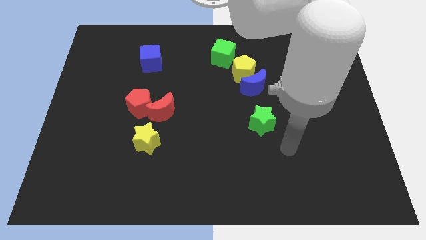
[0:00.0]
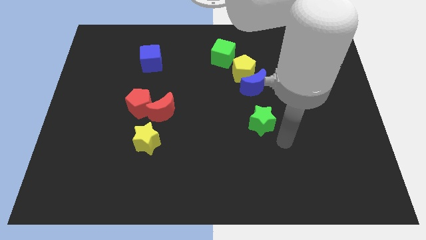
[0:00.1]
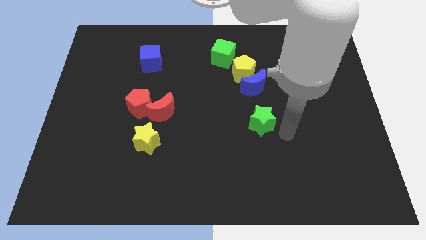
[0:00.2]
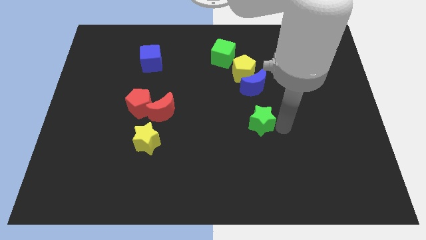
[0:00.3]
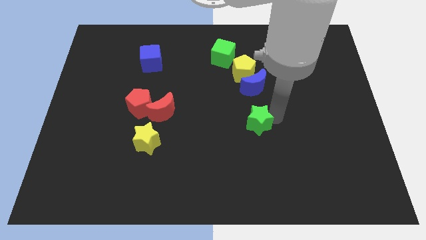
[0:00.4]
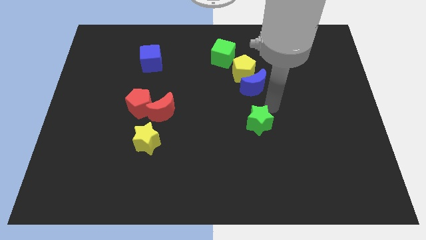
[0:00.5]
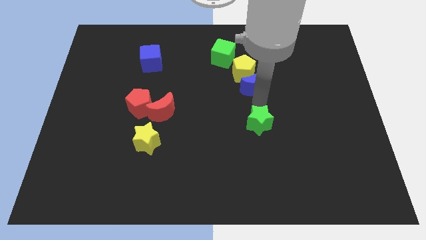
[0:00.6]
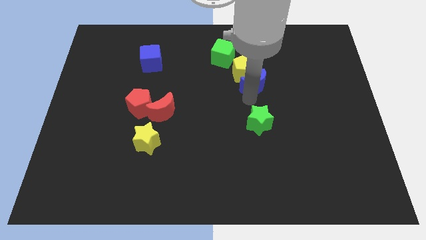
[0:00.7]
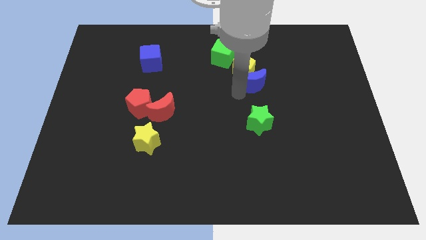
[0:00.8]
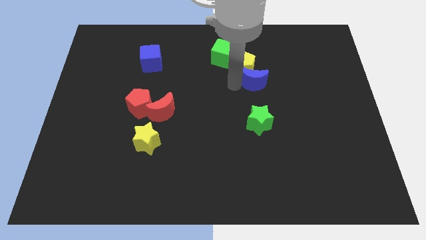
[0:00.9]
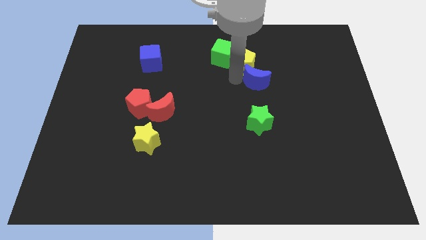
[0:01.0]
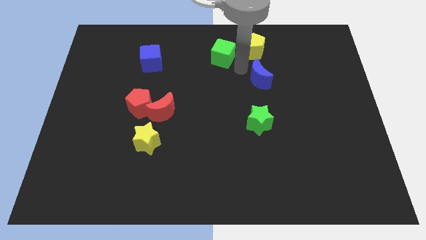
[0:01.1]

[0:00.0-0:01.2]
move the blue moon away from the yellow pentagon

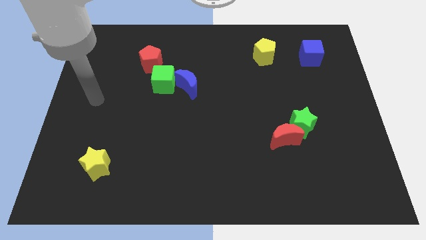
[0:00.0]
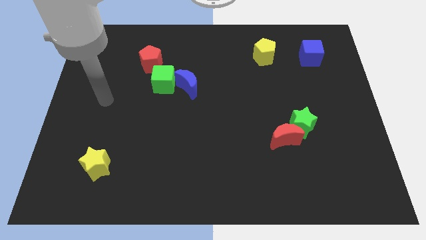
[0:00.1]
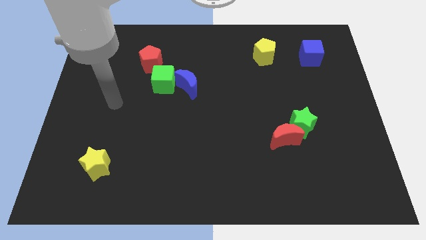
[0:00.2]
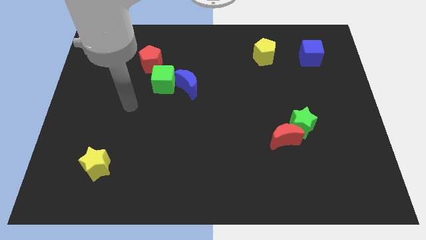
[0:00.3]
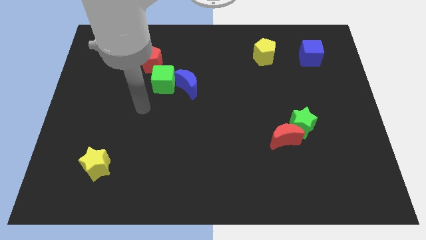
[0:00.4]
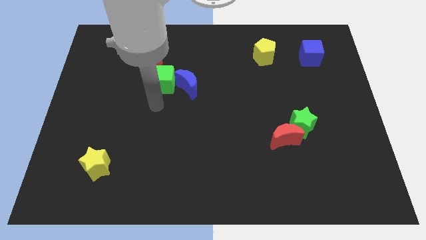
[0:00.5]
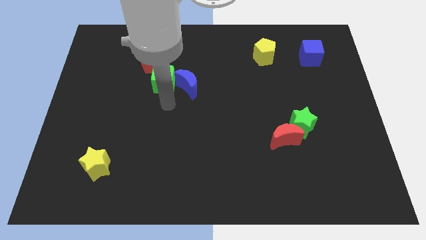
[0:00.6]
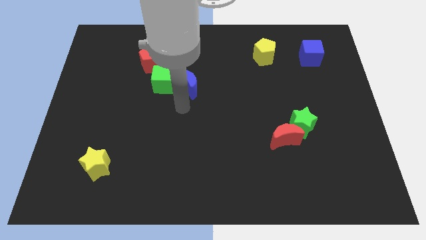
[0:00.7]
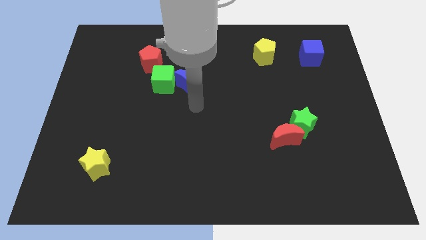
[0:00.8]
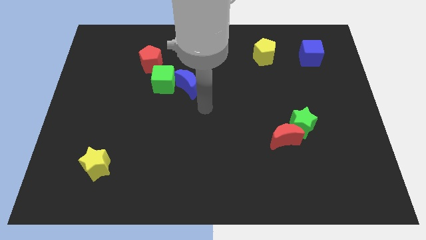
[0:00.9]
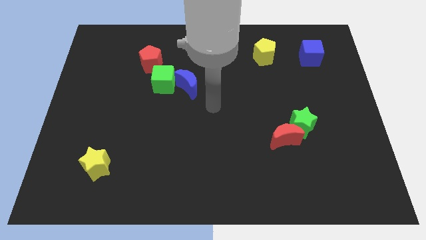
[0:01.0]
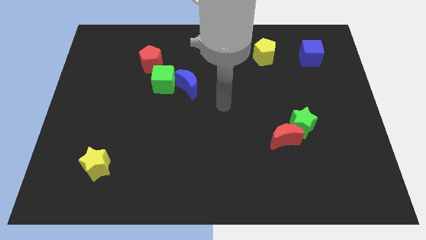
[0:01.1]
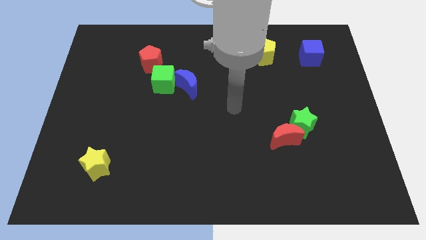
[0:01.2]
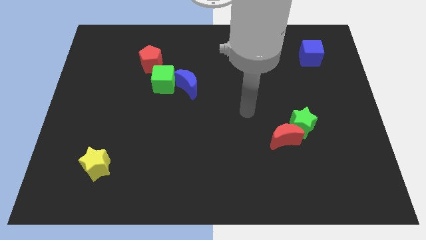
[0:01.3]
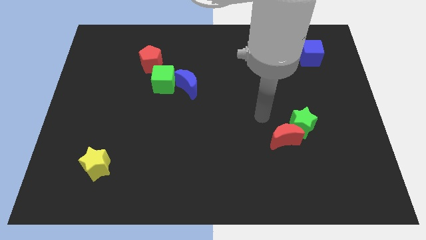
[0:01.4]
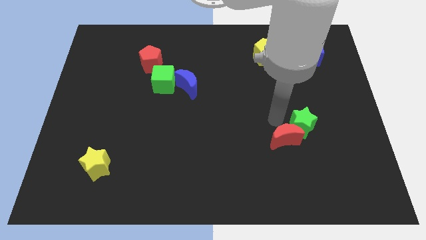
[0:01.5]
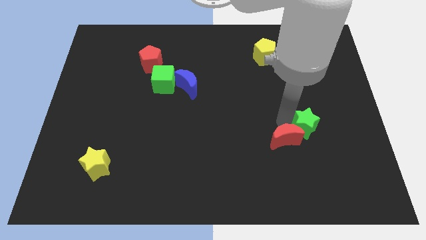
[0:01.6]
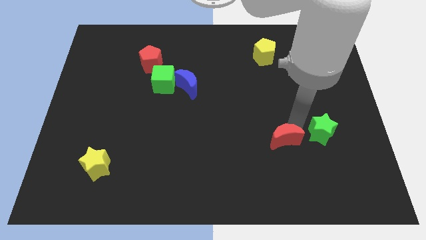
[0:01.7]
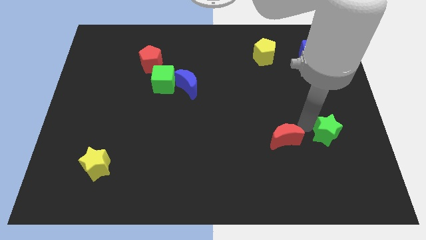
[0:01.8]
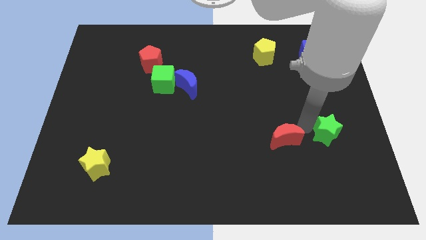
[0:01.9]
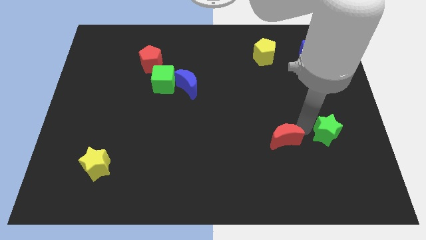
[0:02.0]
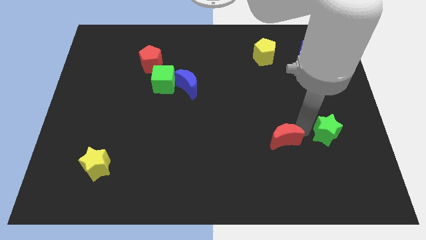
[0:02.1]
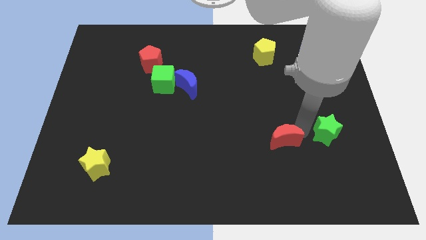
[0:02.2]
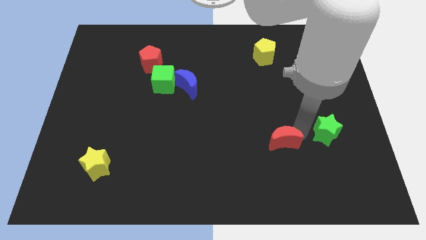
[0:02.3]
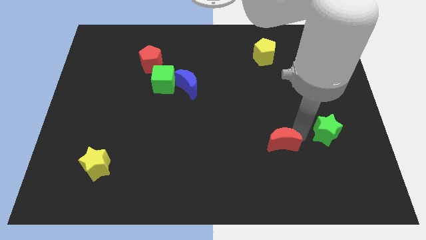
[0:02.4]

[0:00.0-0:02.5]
move the red moon away from the green star

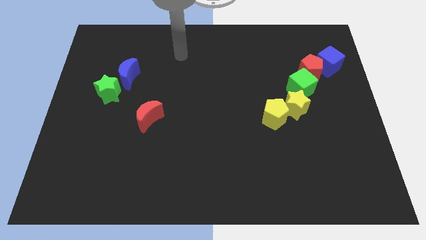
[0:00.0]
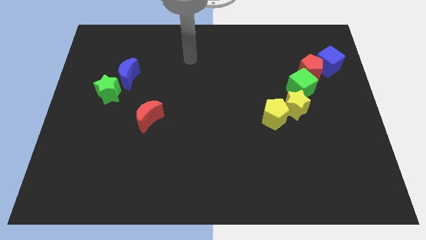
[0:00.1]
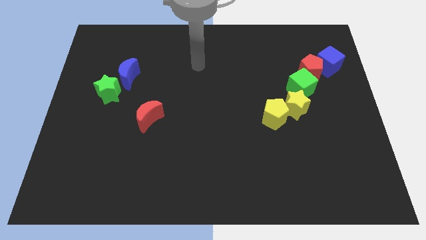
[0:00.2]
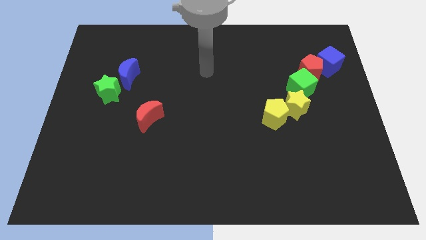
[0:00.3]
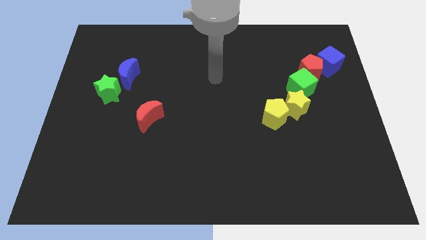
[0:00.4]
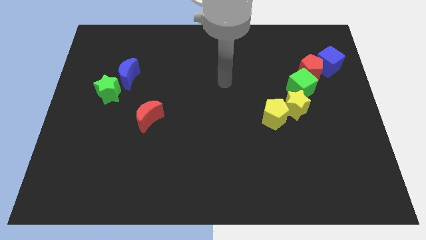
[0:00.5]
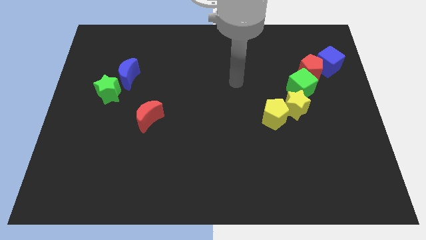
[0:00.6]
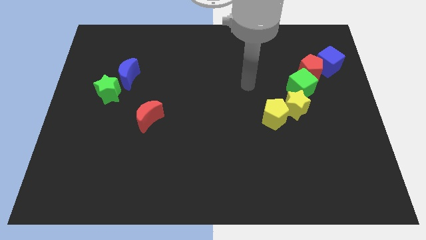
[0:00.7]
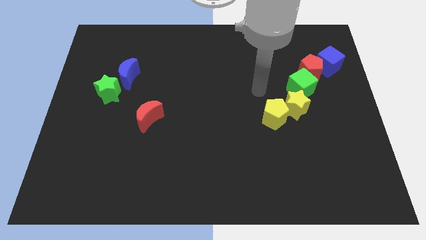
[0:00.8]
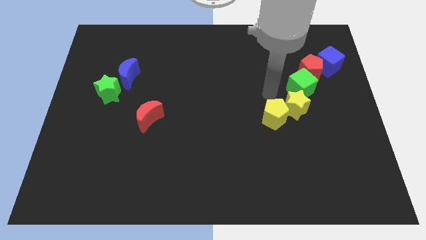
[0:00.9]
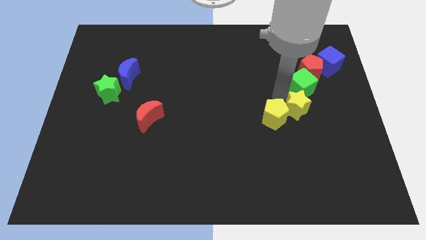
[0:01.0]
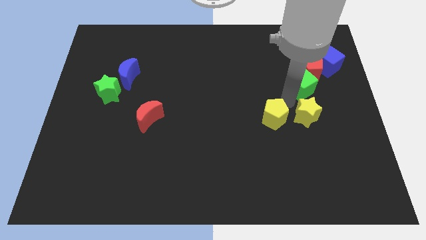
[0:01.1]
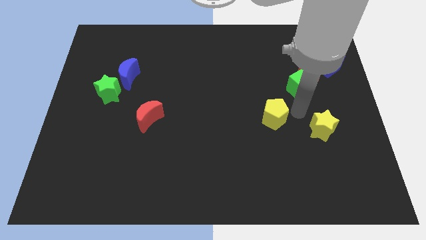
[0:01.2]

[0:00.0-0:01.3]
separate the yellow pentagon from the yellow star

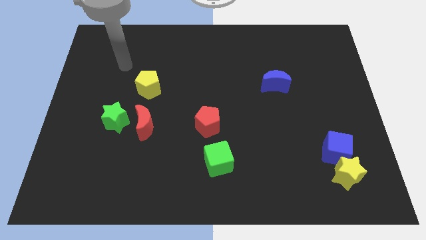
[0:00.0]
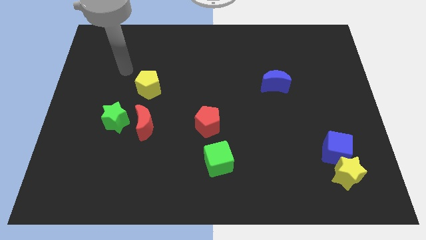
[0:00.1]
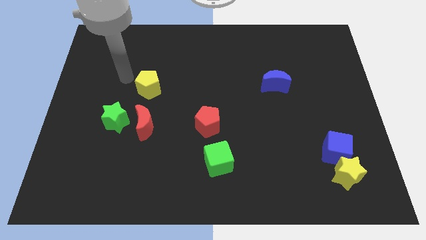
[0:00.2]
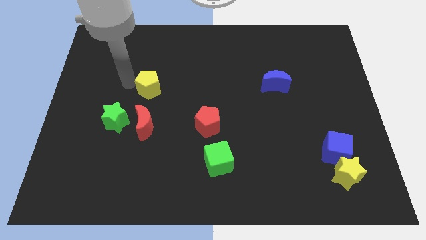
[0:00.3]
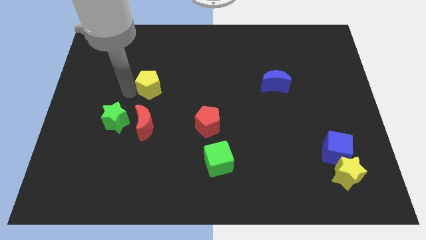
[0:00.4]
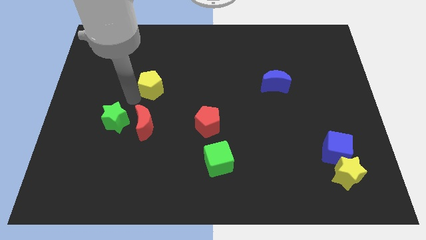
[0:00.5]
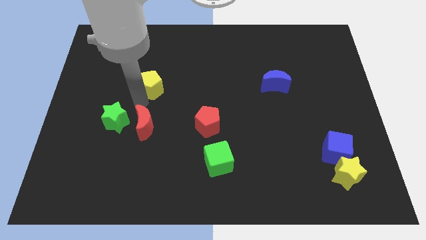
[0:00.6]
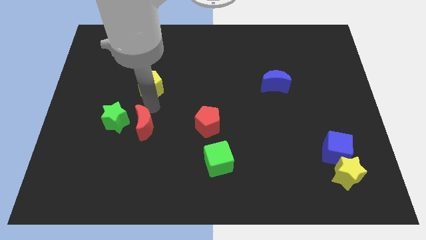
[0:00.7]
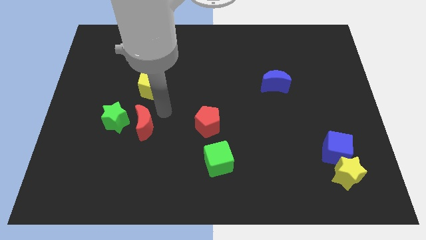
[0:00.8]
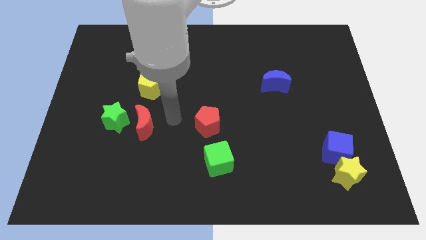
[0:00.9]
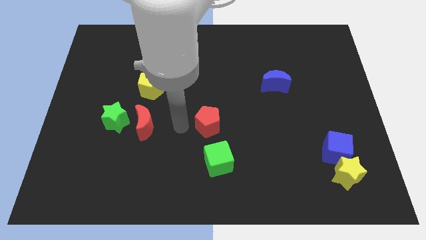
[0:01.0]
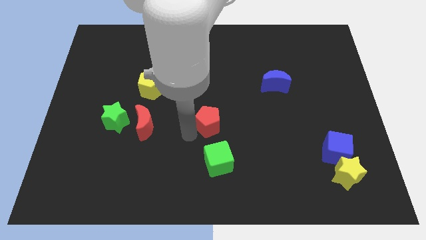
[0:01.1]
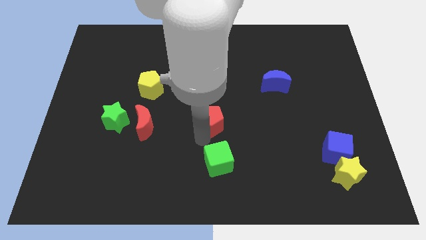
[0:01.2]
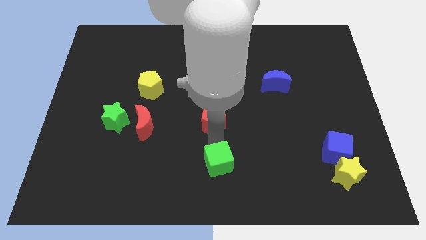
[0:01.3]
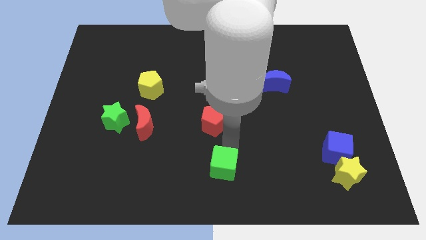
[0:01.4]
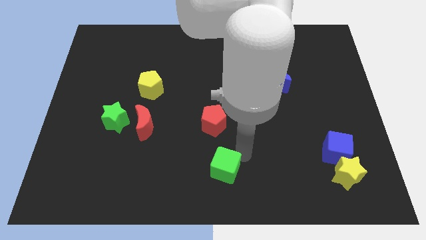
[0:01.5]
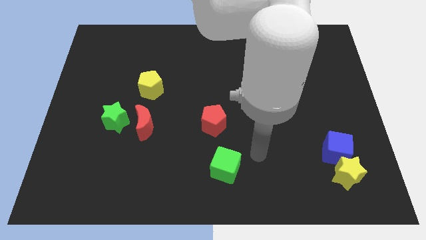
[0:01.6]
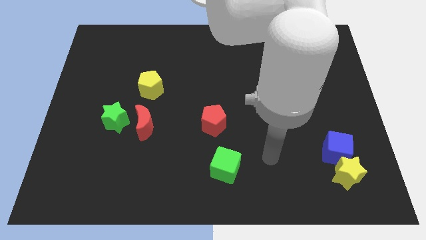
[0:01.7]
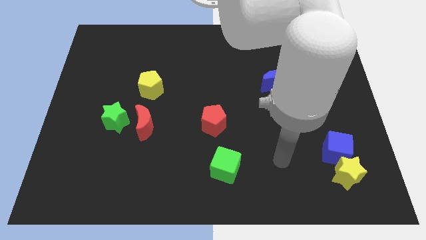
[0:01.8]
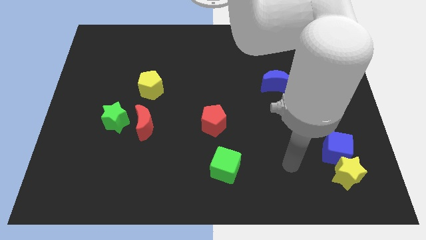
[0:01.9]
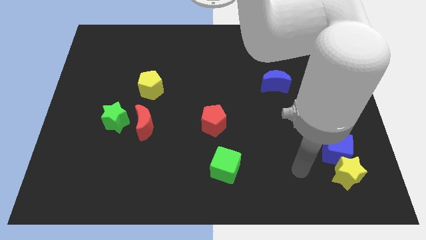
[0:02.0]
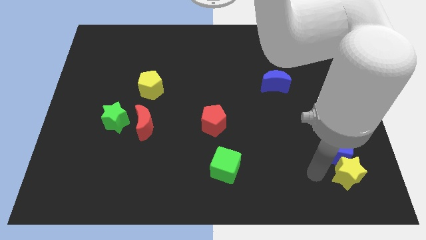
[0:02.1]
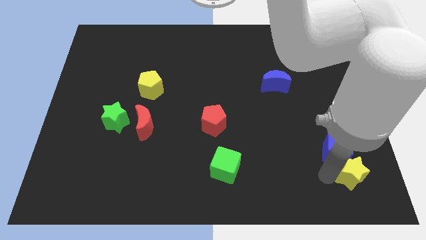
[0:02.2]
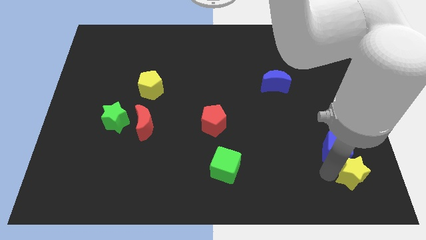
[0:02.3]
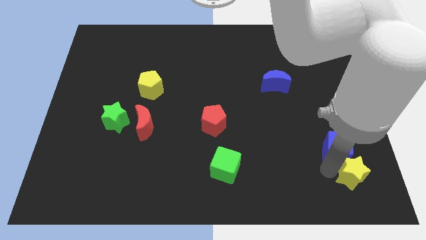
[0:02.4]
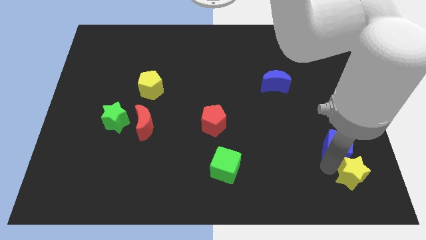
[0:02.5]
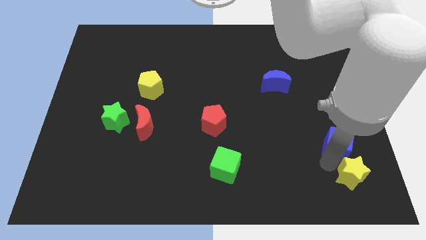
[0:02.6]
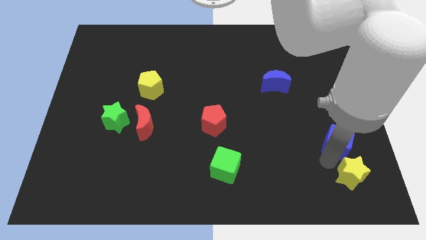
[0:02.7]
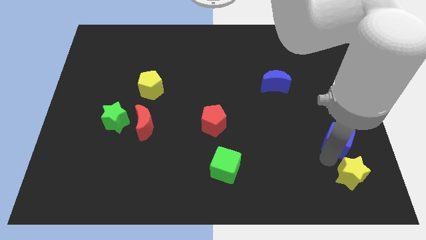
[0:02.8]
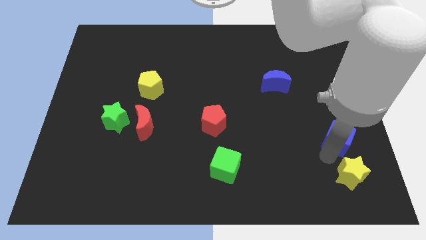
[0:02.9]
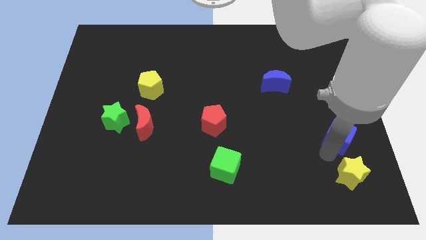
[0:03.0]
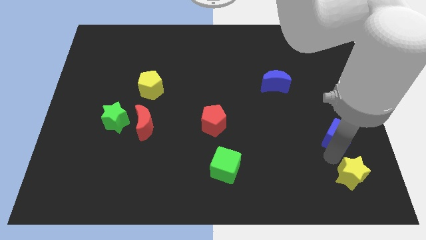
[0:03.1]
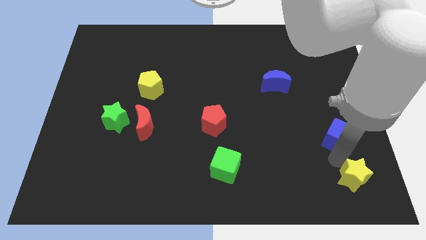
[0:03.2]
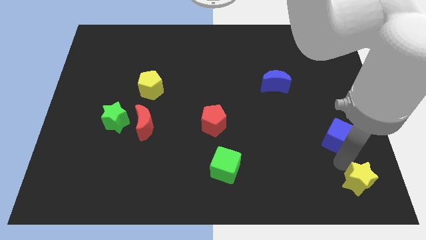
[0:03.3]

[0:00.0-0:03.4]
move the blue cube away from the yellow star

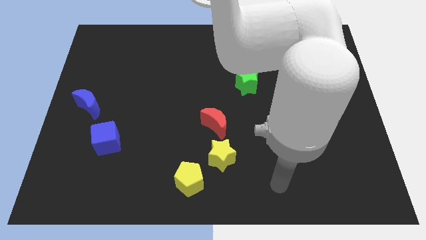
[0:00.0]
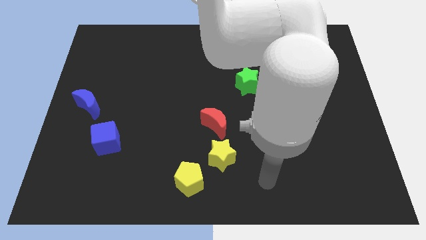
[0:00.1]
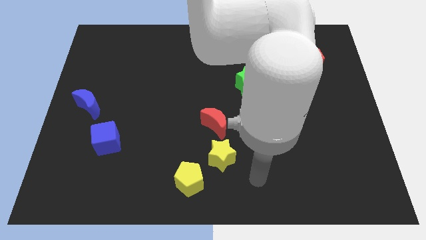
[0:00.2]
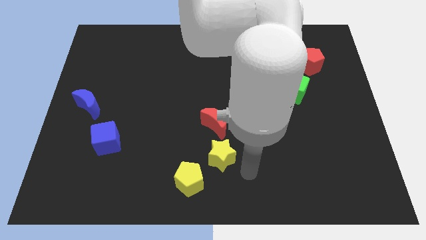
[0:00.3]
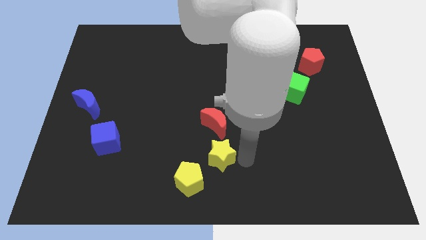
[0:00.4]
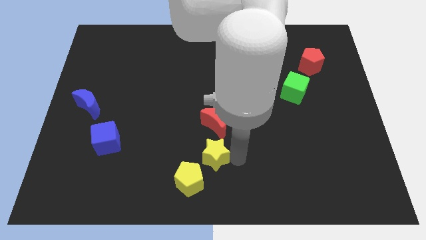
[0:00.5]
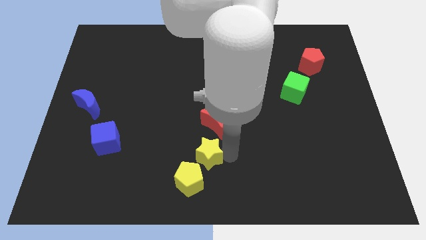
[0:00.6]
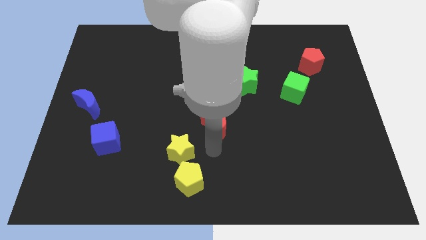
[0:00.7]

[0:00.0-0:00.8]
pull the red moon apart from the yellow star
